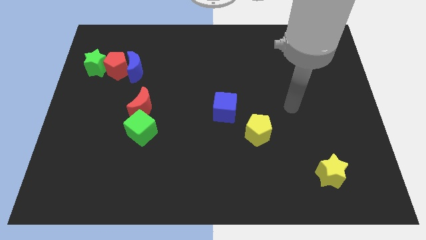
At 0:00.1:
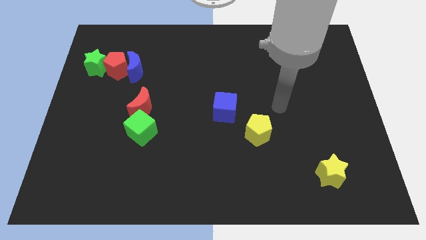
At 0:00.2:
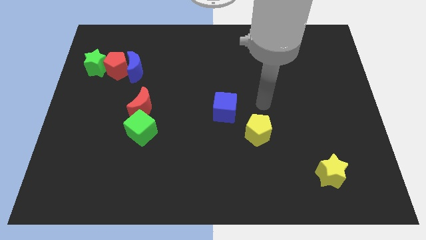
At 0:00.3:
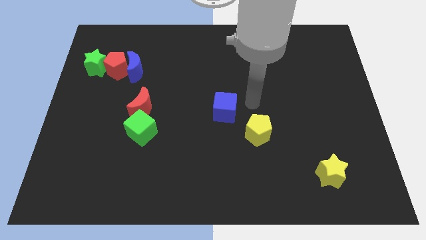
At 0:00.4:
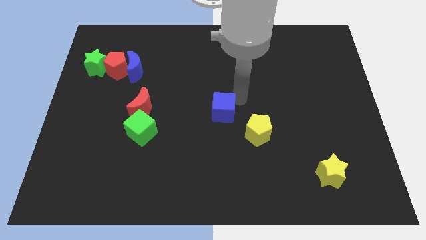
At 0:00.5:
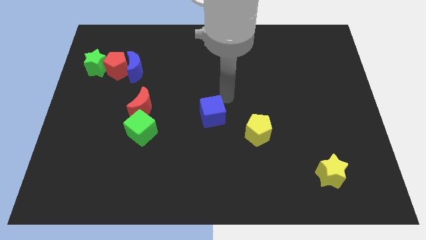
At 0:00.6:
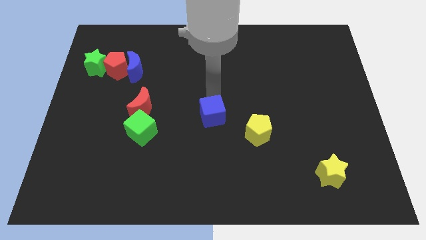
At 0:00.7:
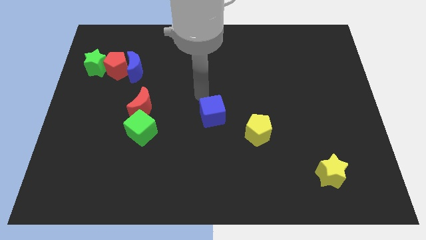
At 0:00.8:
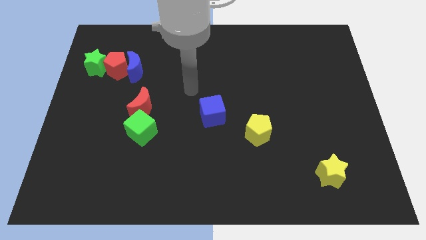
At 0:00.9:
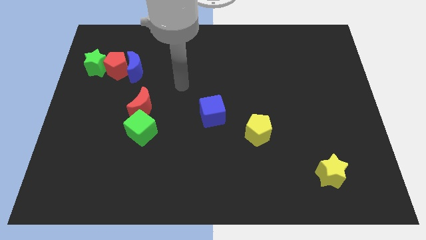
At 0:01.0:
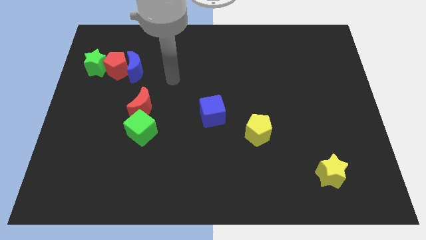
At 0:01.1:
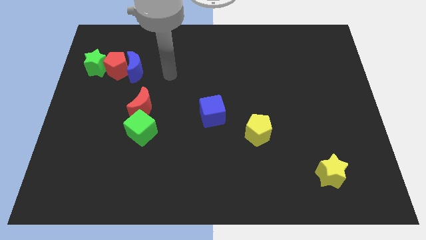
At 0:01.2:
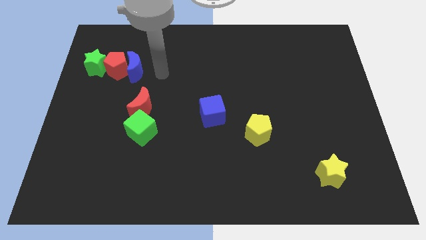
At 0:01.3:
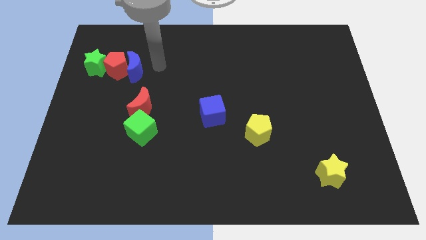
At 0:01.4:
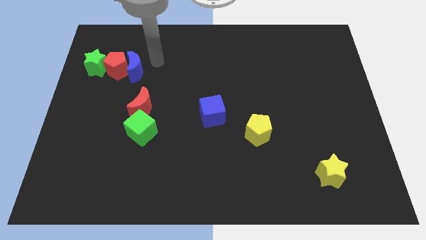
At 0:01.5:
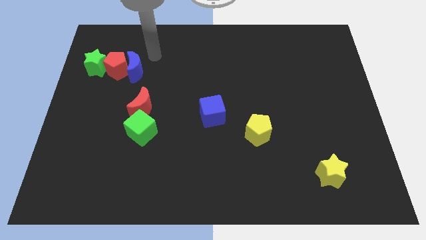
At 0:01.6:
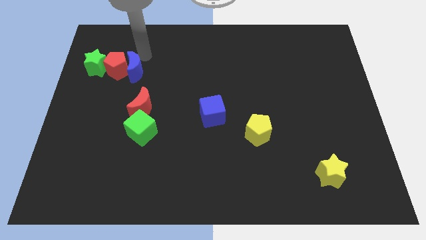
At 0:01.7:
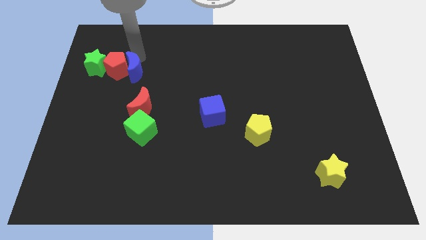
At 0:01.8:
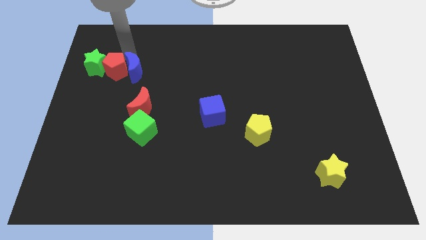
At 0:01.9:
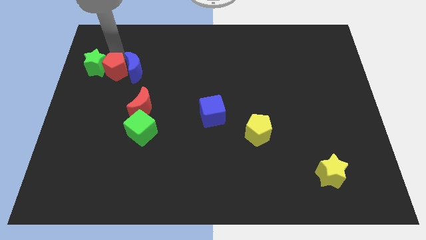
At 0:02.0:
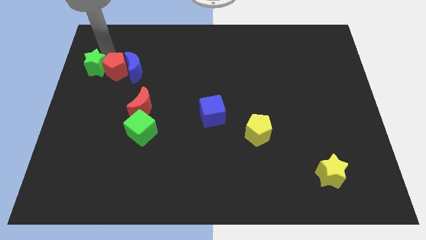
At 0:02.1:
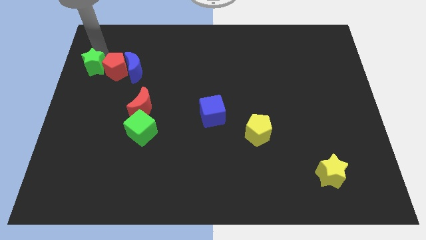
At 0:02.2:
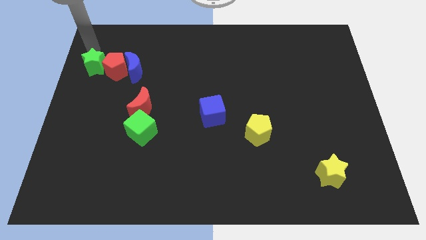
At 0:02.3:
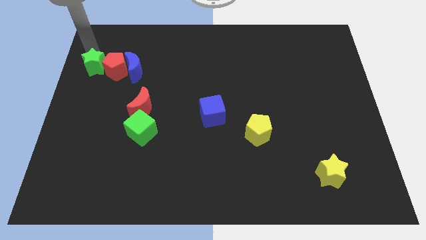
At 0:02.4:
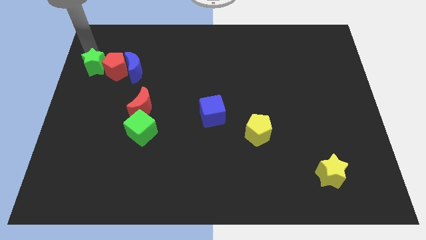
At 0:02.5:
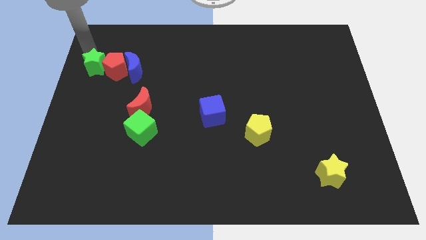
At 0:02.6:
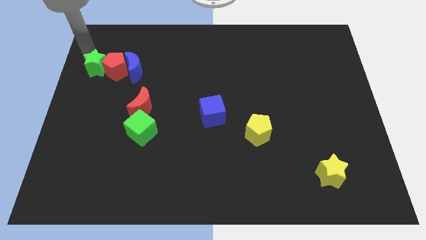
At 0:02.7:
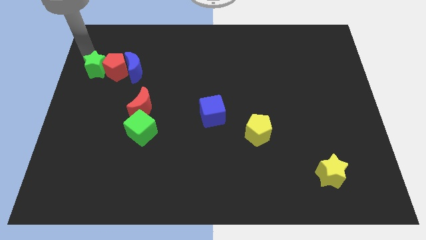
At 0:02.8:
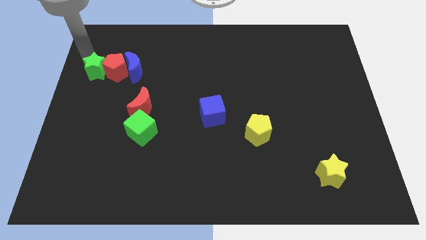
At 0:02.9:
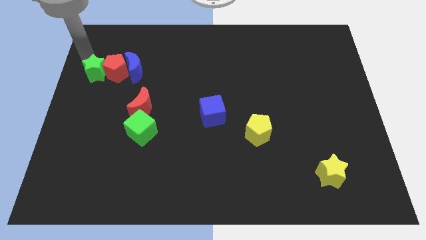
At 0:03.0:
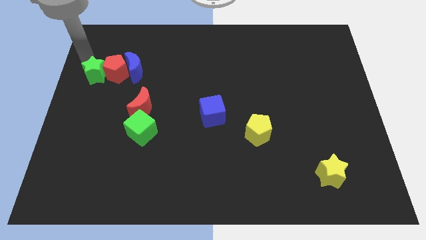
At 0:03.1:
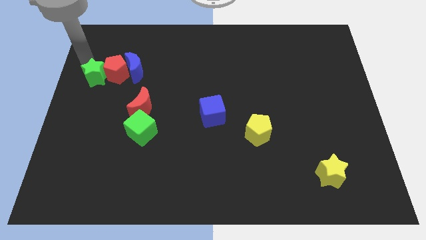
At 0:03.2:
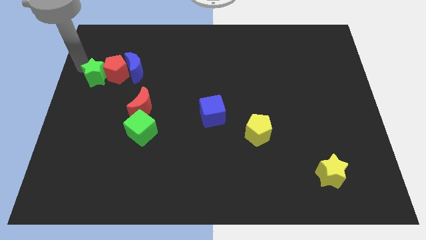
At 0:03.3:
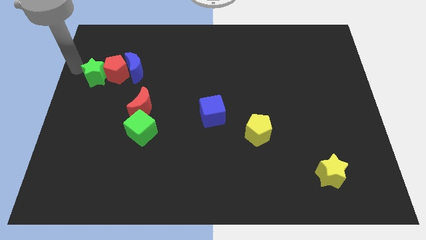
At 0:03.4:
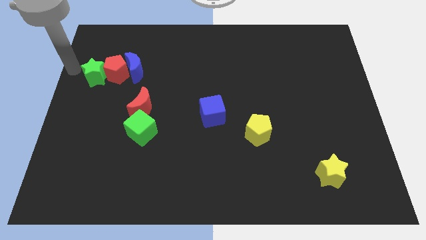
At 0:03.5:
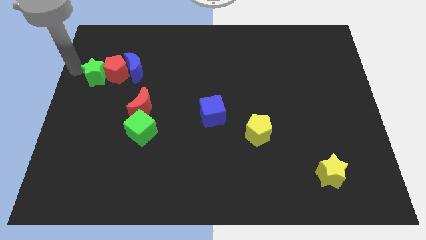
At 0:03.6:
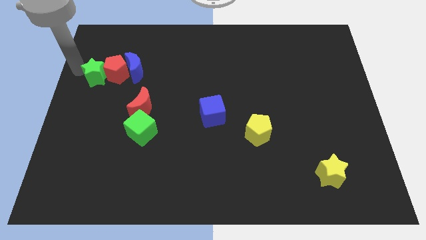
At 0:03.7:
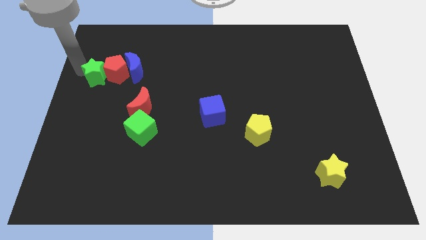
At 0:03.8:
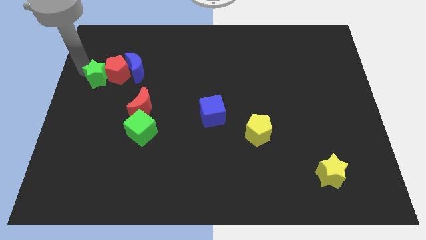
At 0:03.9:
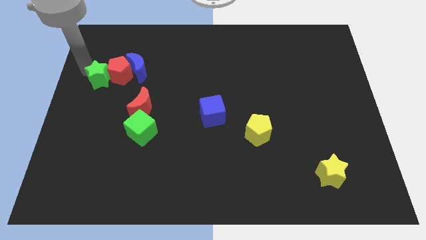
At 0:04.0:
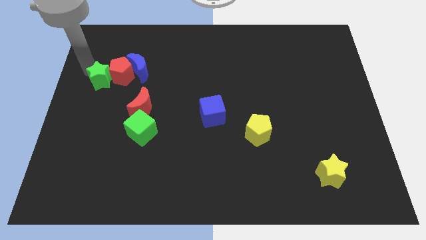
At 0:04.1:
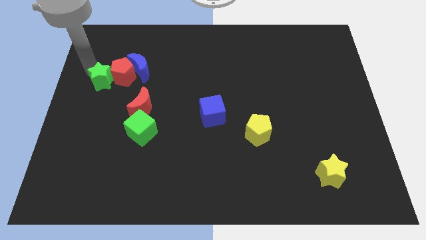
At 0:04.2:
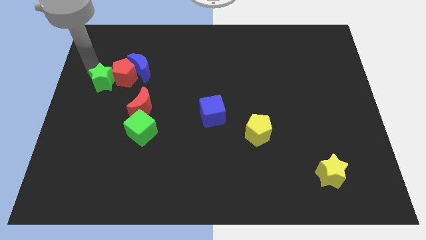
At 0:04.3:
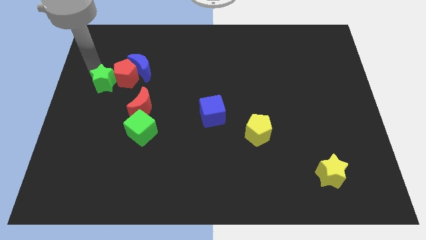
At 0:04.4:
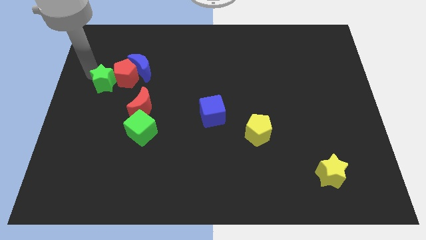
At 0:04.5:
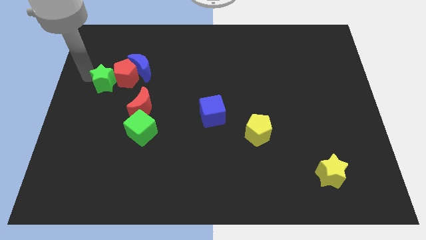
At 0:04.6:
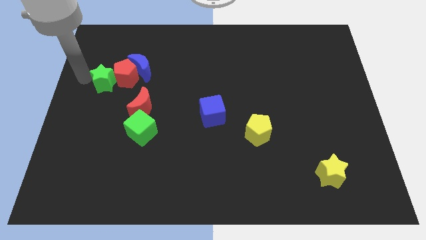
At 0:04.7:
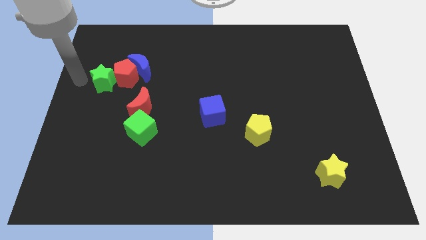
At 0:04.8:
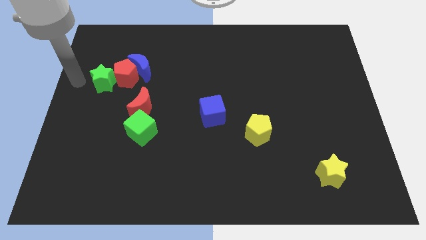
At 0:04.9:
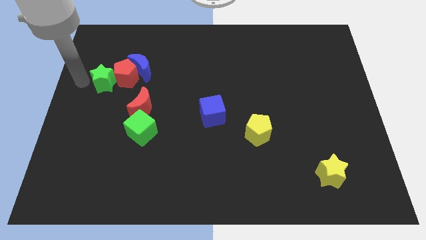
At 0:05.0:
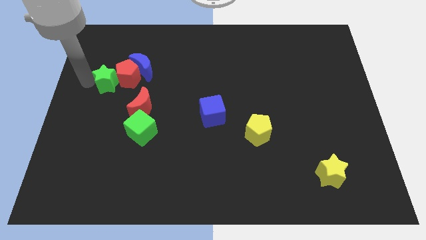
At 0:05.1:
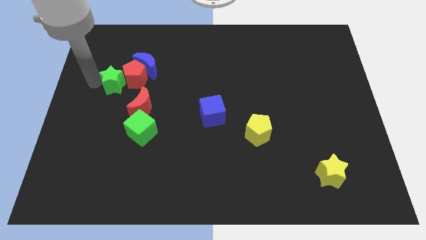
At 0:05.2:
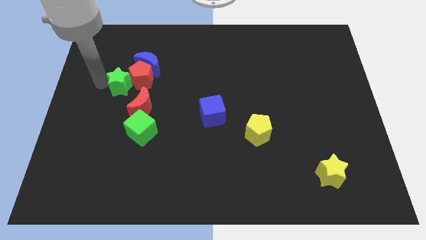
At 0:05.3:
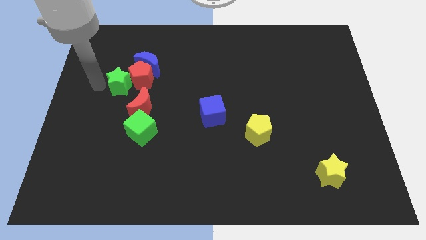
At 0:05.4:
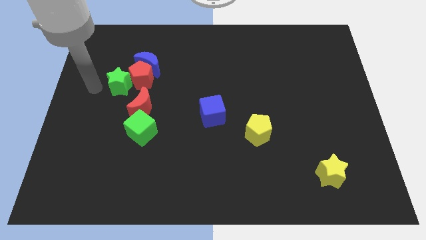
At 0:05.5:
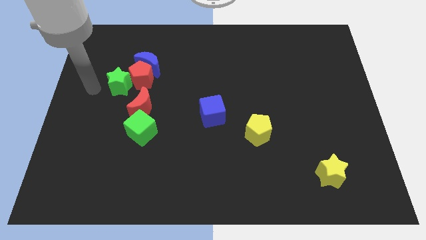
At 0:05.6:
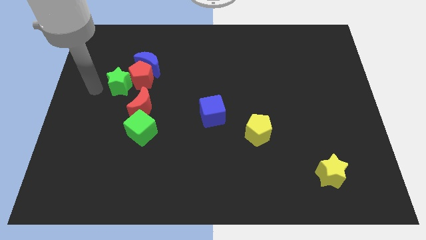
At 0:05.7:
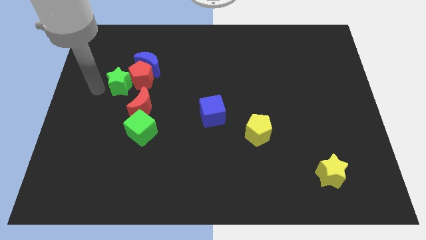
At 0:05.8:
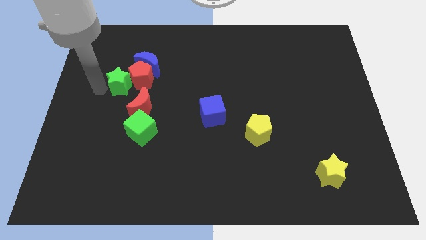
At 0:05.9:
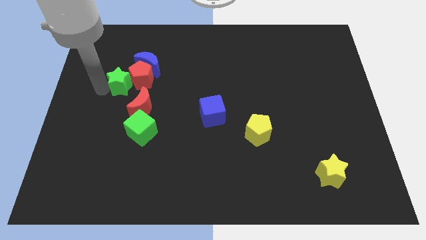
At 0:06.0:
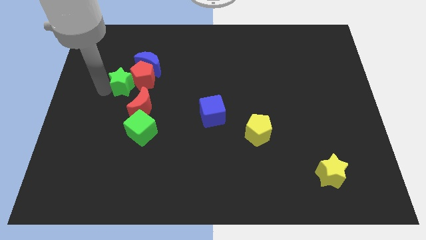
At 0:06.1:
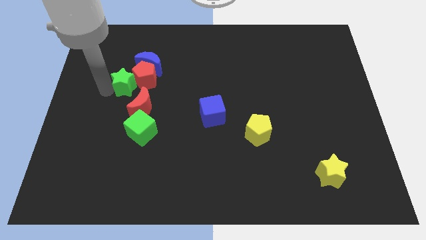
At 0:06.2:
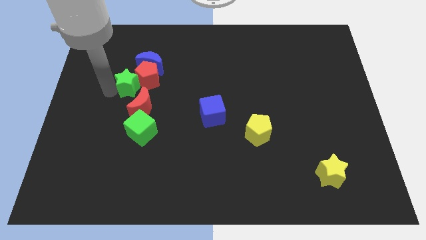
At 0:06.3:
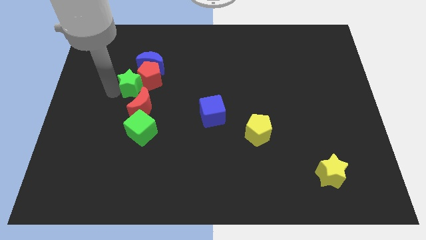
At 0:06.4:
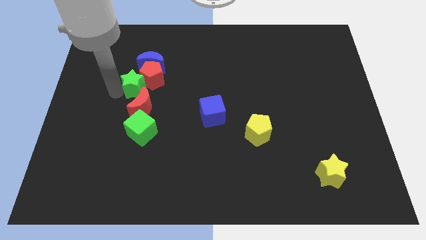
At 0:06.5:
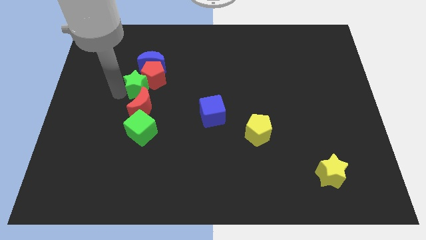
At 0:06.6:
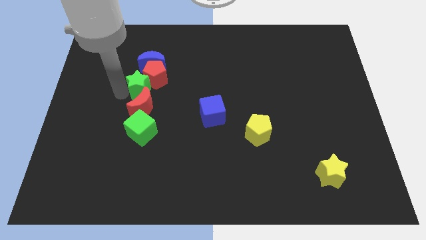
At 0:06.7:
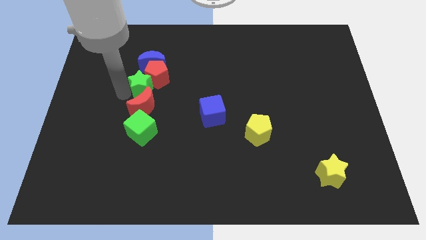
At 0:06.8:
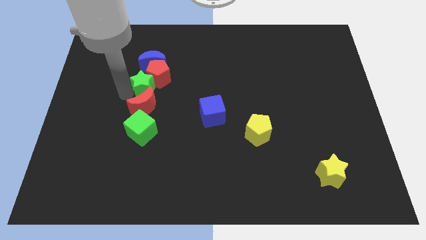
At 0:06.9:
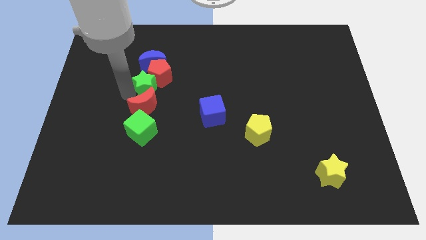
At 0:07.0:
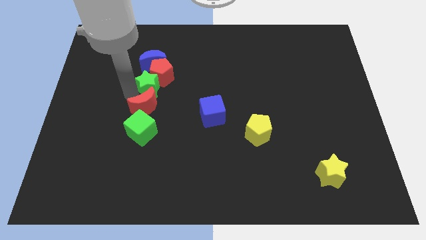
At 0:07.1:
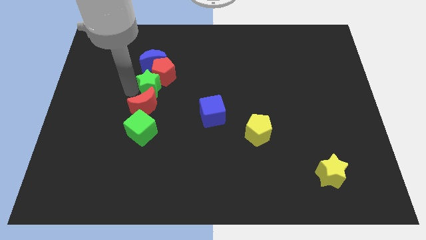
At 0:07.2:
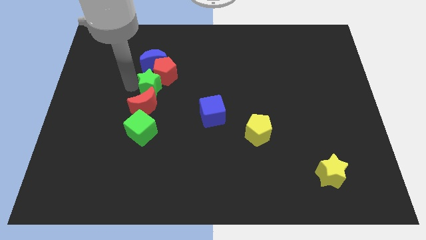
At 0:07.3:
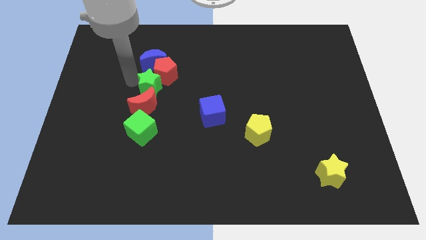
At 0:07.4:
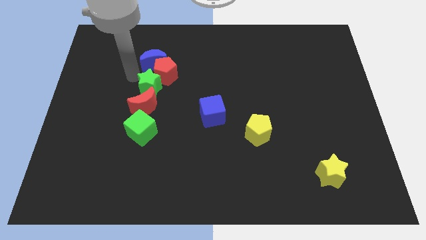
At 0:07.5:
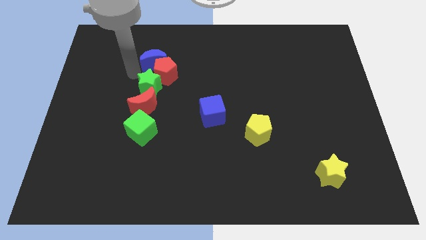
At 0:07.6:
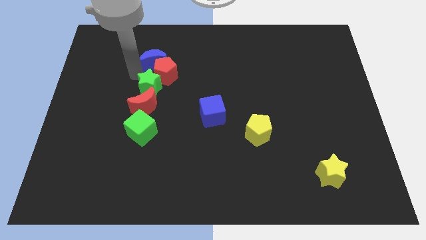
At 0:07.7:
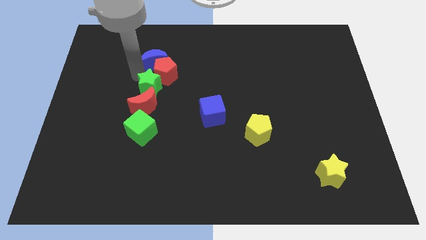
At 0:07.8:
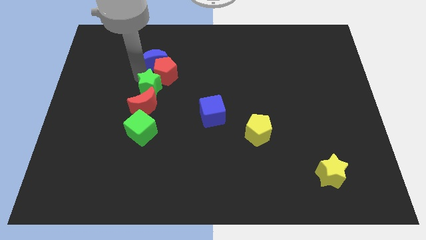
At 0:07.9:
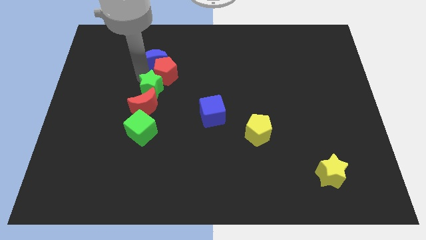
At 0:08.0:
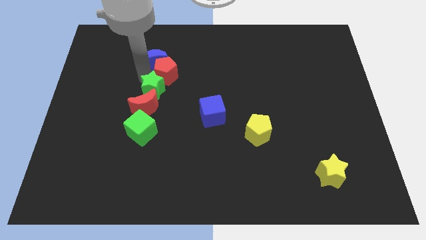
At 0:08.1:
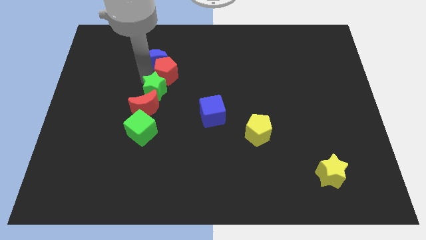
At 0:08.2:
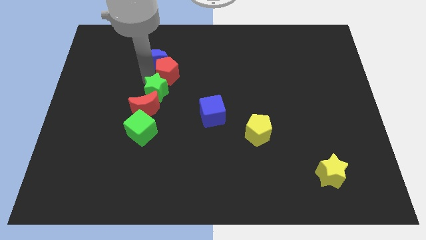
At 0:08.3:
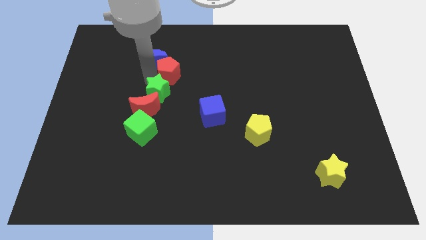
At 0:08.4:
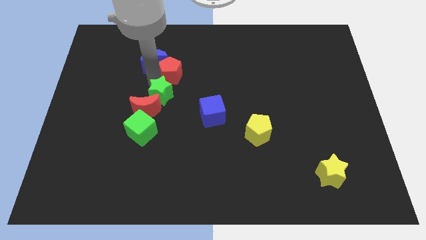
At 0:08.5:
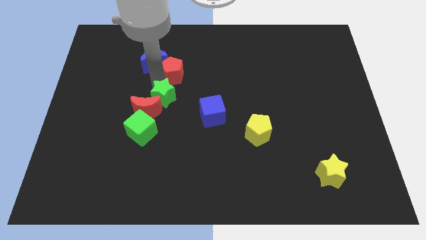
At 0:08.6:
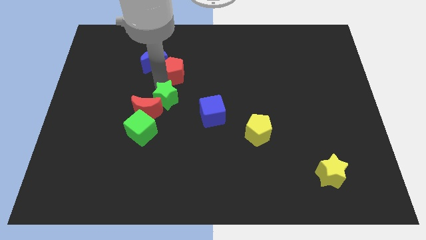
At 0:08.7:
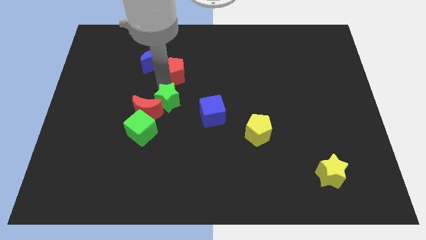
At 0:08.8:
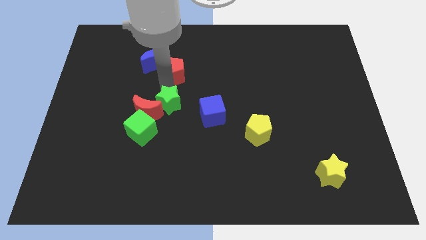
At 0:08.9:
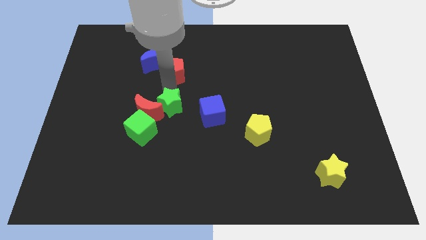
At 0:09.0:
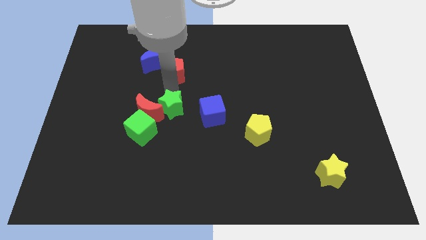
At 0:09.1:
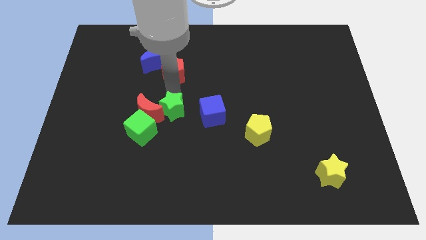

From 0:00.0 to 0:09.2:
put the green star diagonally down and to the right of the red moon
